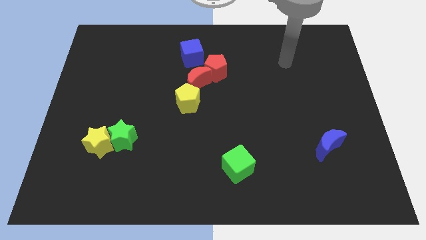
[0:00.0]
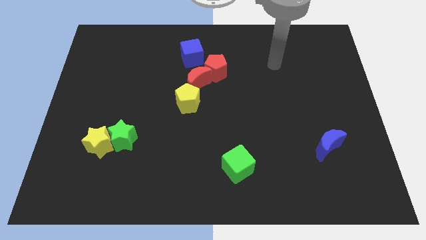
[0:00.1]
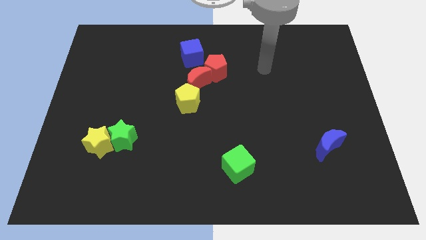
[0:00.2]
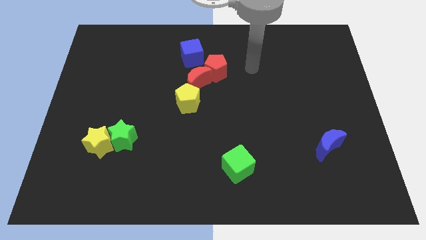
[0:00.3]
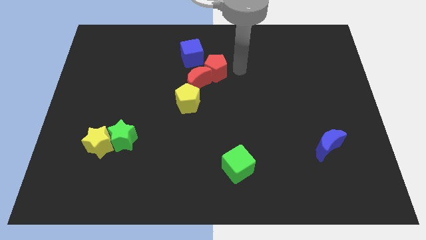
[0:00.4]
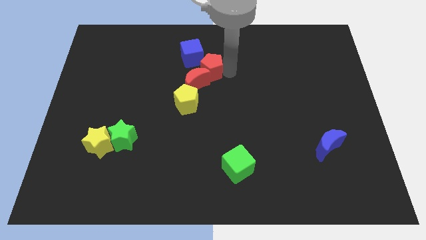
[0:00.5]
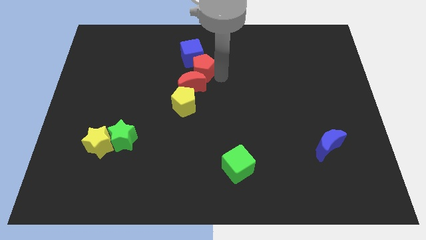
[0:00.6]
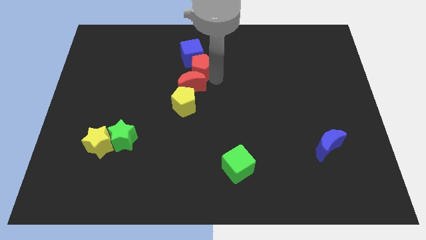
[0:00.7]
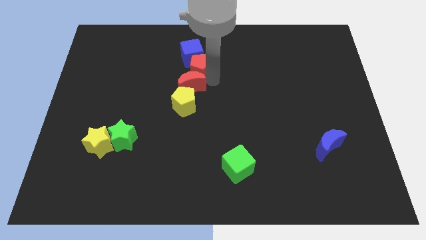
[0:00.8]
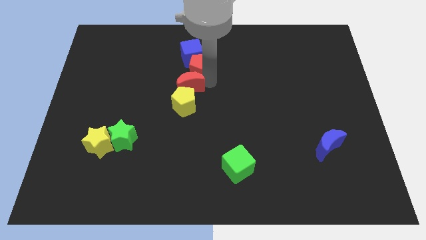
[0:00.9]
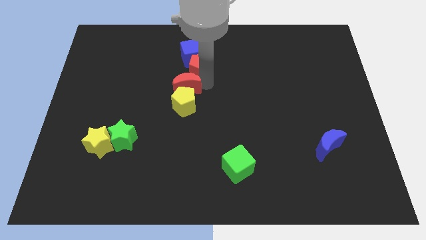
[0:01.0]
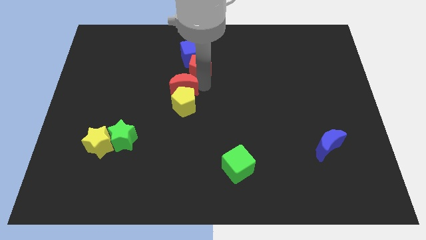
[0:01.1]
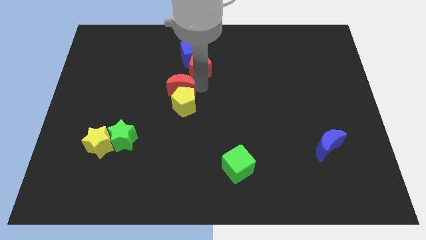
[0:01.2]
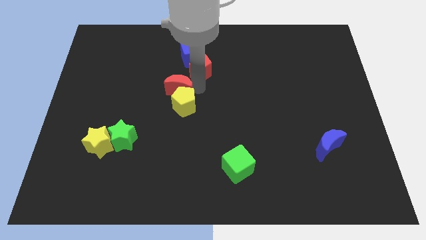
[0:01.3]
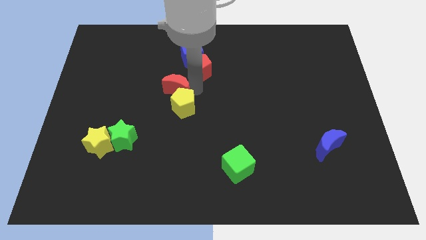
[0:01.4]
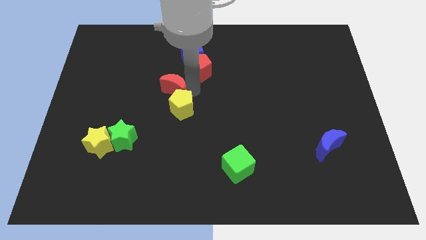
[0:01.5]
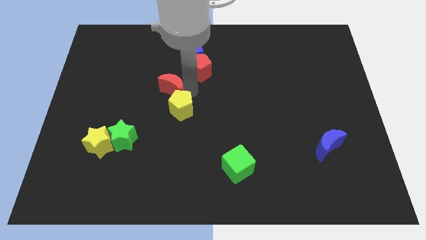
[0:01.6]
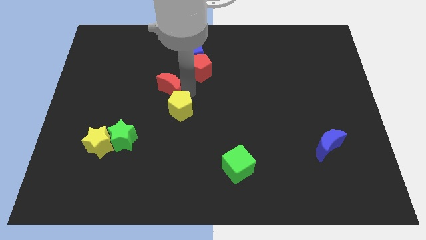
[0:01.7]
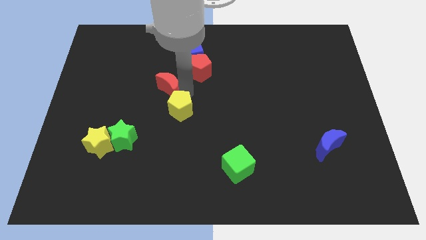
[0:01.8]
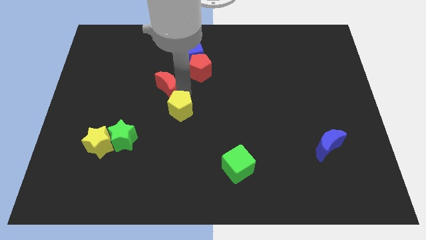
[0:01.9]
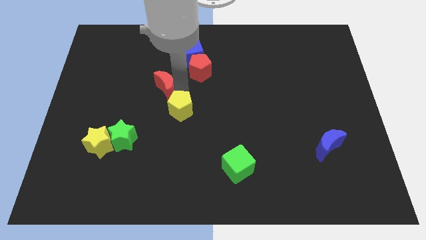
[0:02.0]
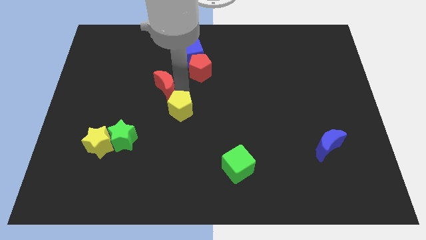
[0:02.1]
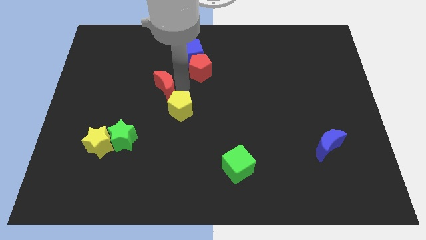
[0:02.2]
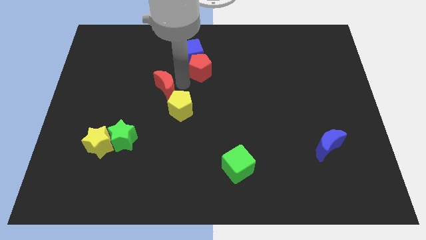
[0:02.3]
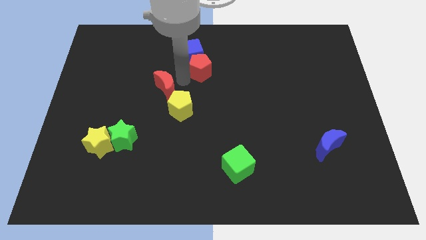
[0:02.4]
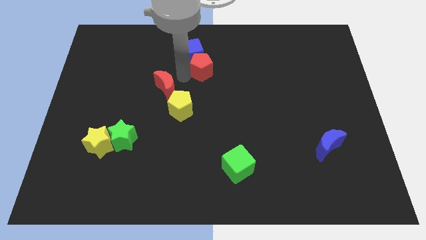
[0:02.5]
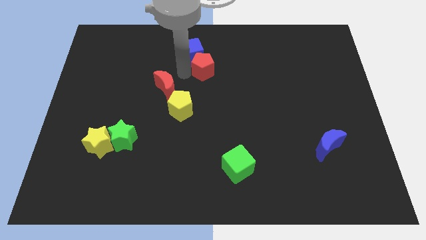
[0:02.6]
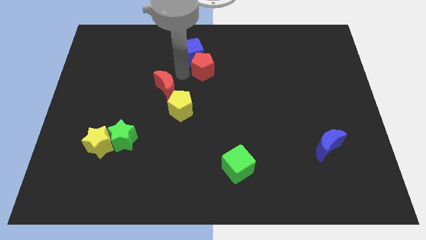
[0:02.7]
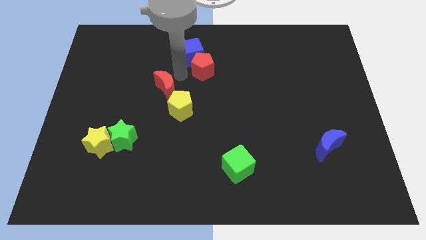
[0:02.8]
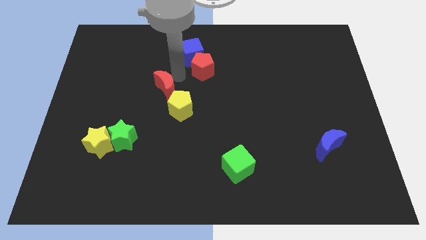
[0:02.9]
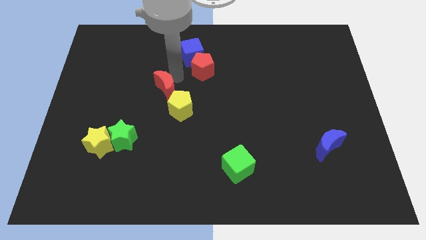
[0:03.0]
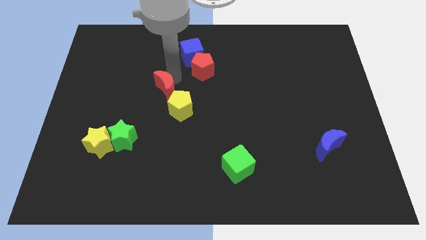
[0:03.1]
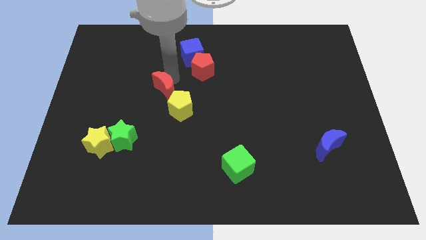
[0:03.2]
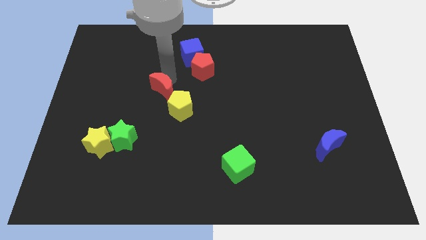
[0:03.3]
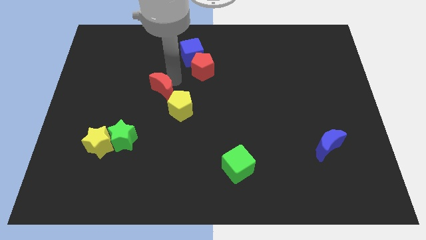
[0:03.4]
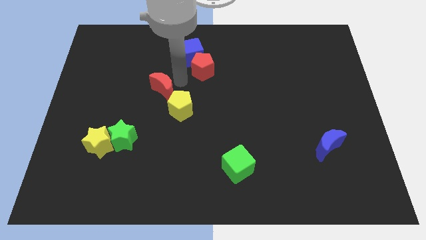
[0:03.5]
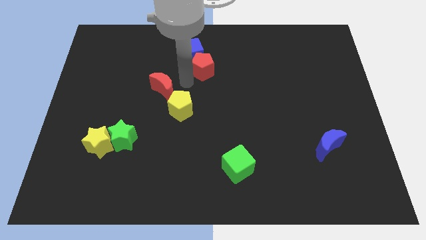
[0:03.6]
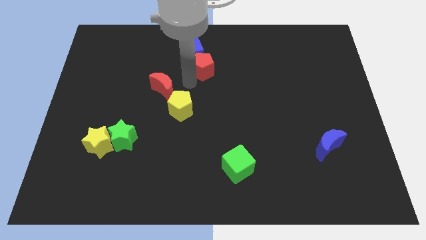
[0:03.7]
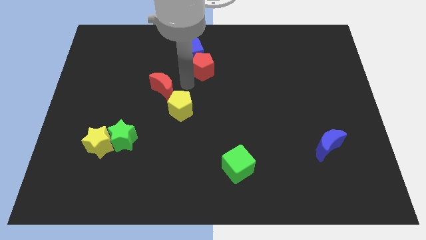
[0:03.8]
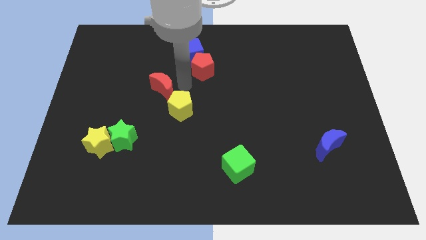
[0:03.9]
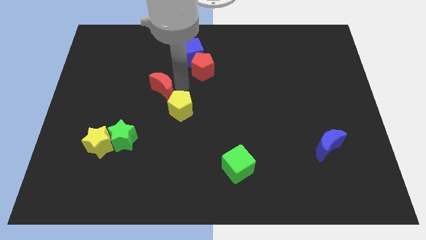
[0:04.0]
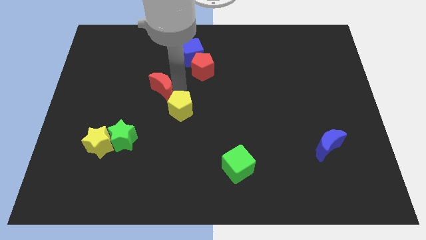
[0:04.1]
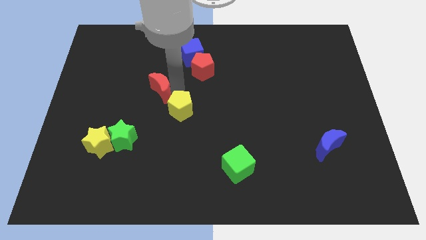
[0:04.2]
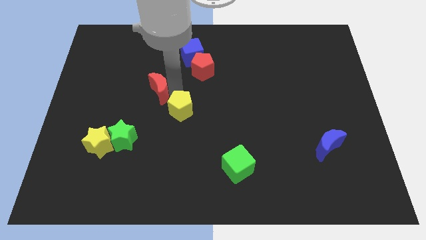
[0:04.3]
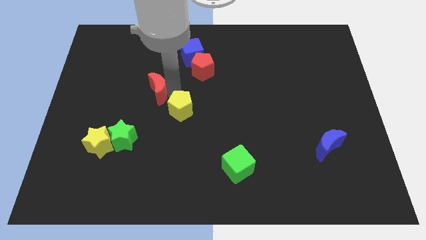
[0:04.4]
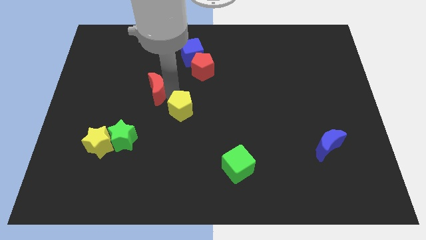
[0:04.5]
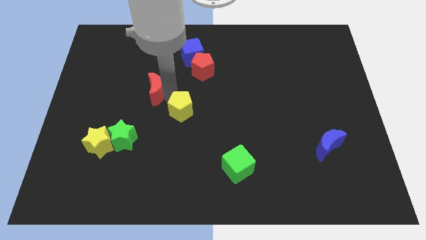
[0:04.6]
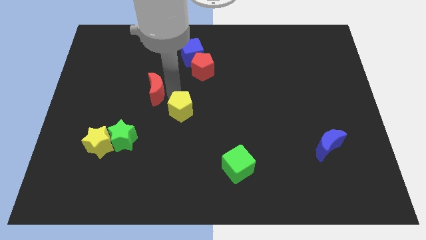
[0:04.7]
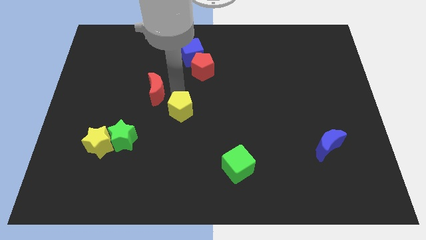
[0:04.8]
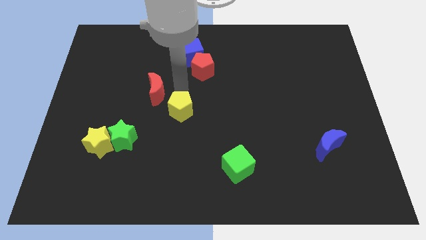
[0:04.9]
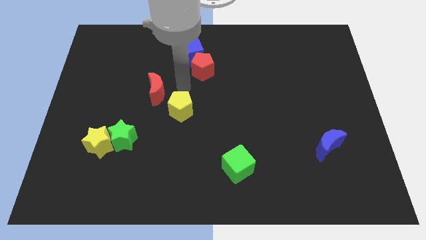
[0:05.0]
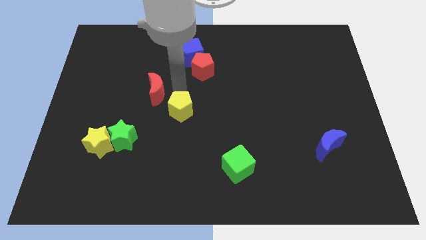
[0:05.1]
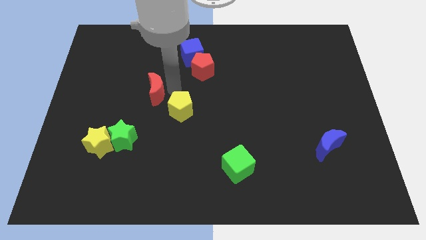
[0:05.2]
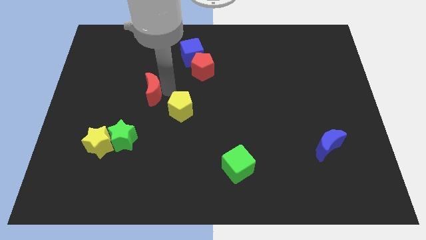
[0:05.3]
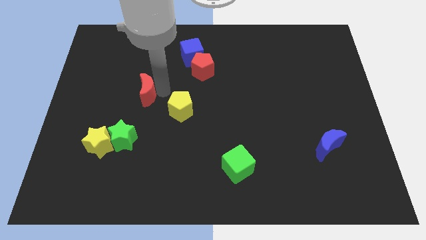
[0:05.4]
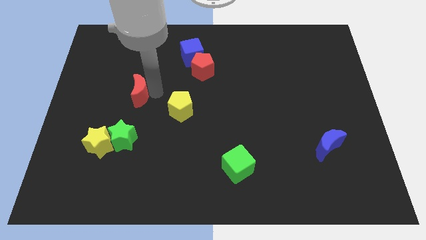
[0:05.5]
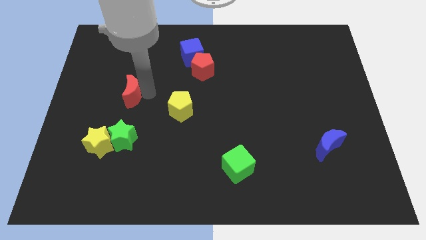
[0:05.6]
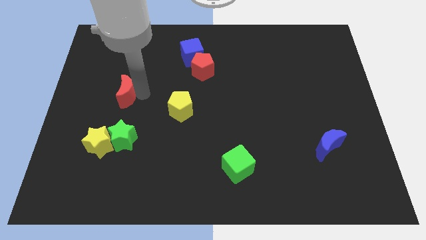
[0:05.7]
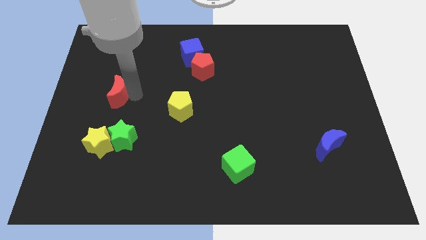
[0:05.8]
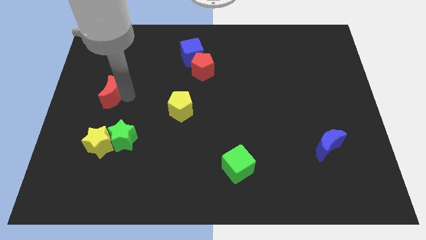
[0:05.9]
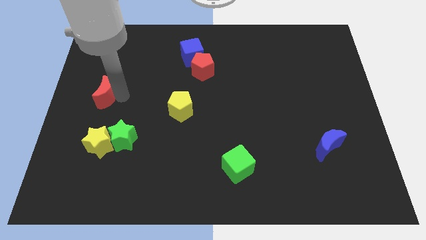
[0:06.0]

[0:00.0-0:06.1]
push the red moon to the center left
